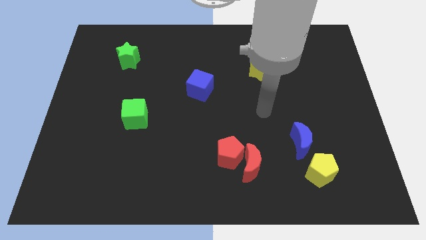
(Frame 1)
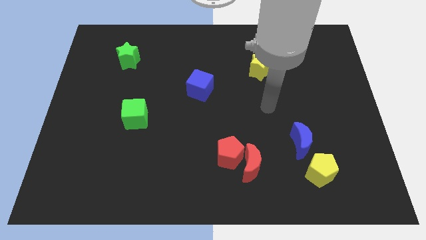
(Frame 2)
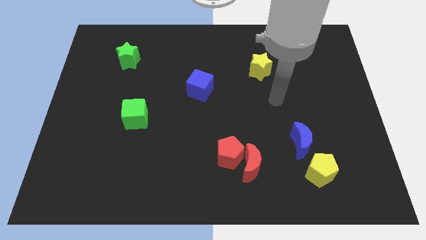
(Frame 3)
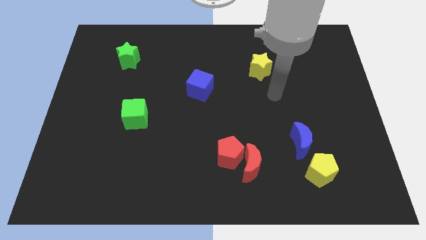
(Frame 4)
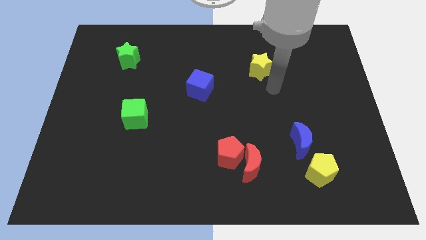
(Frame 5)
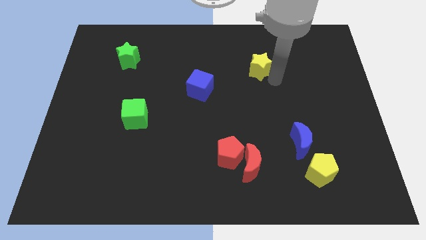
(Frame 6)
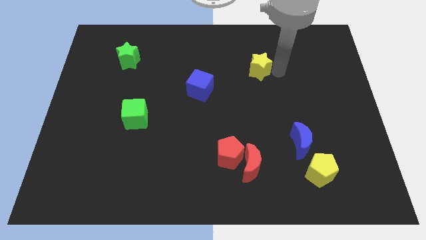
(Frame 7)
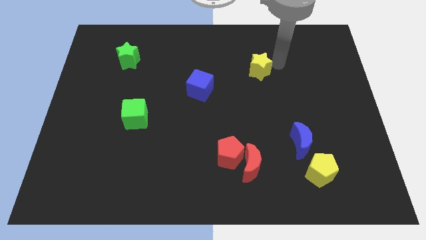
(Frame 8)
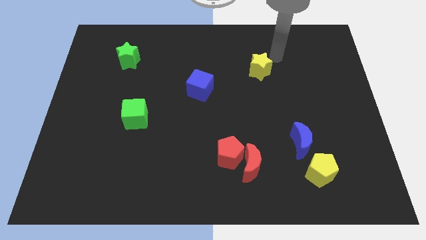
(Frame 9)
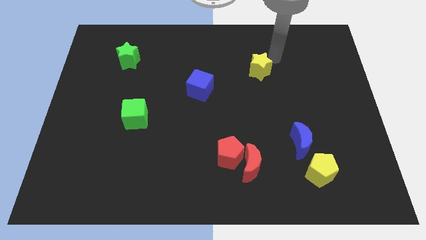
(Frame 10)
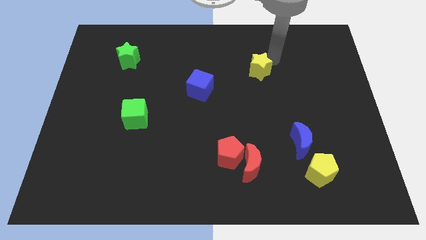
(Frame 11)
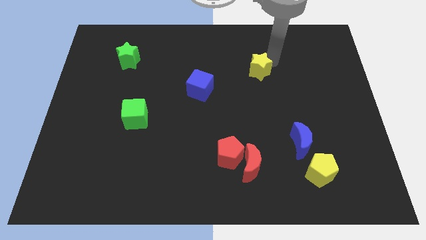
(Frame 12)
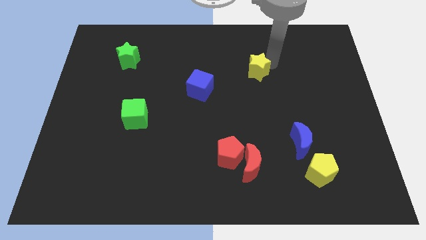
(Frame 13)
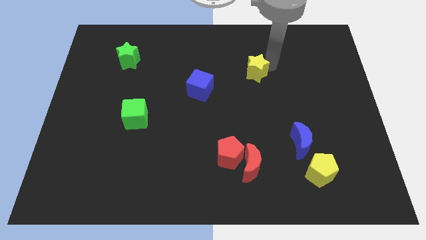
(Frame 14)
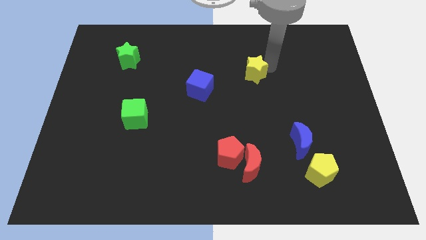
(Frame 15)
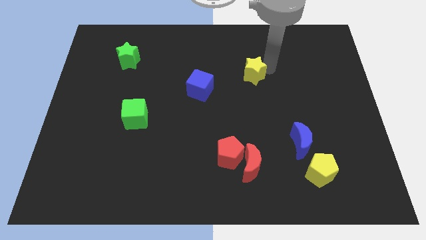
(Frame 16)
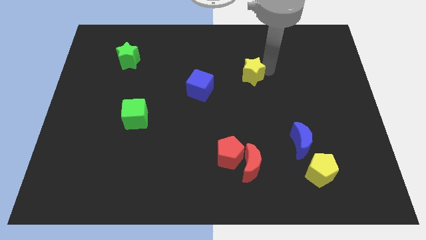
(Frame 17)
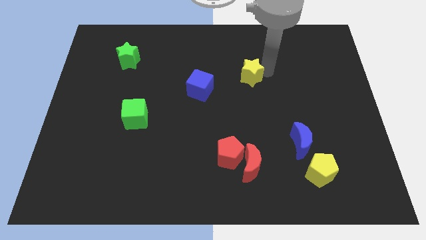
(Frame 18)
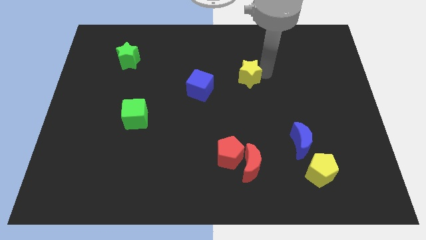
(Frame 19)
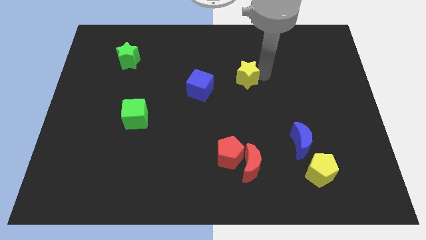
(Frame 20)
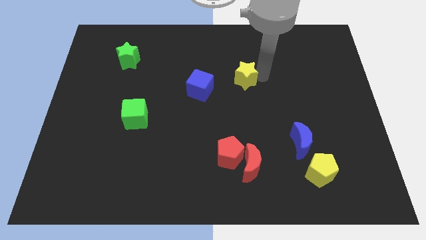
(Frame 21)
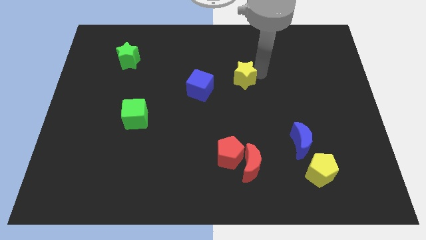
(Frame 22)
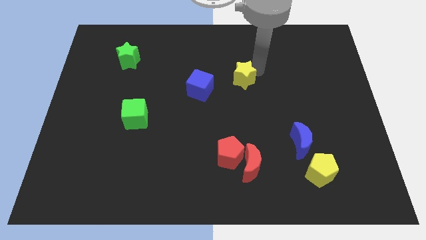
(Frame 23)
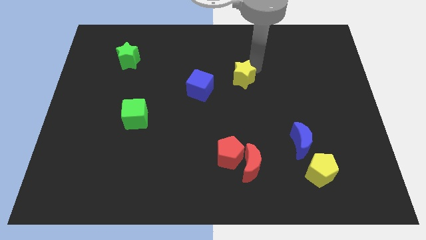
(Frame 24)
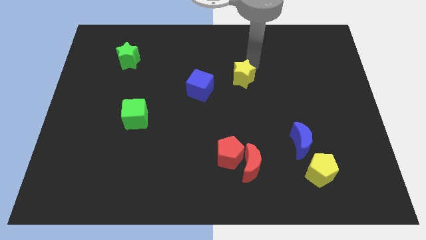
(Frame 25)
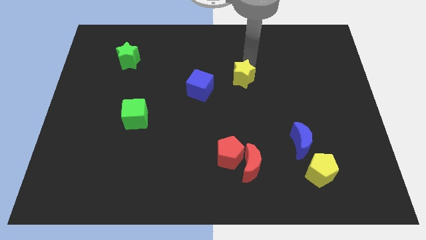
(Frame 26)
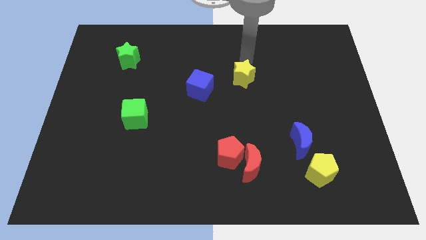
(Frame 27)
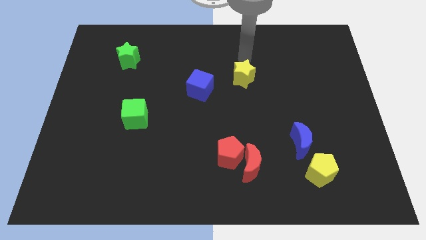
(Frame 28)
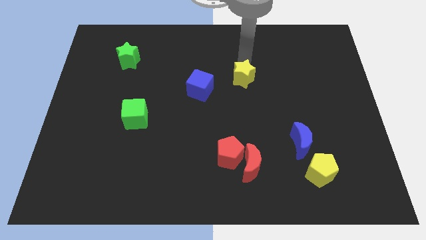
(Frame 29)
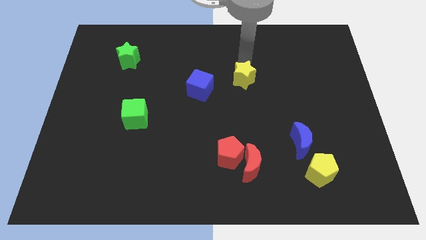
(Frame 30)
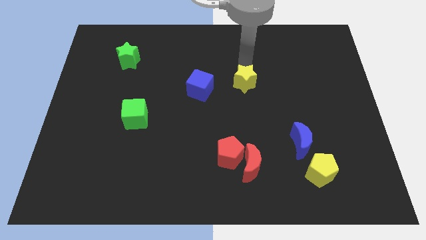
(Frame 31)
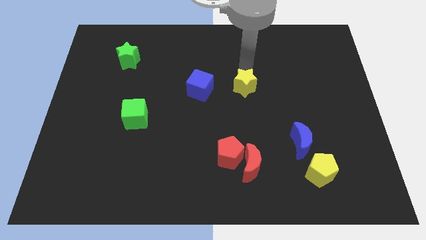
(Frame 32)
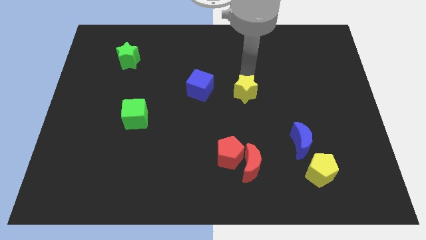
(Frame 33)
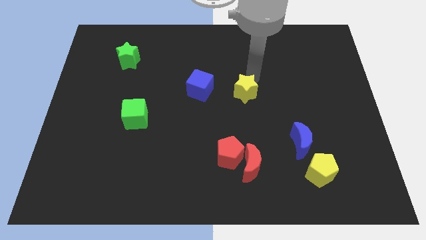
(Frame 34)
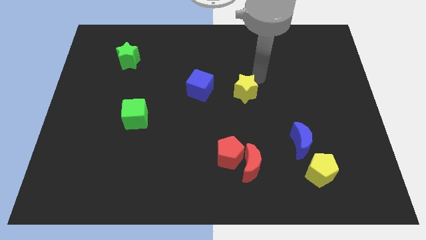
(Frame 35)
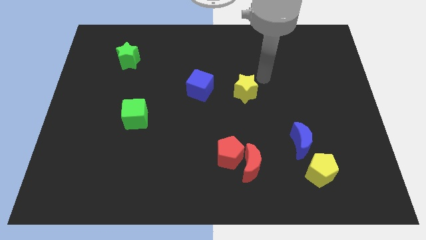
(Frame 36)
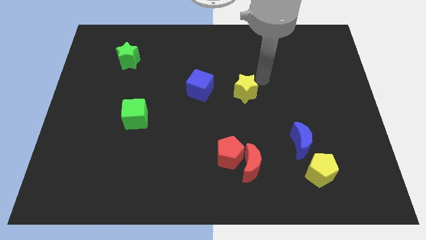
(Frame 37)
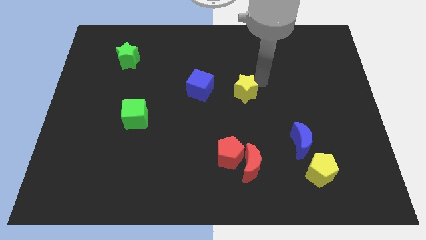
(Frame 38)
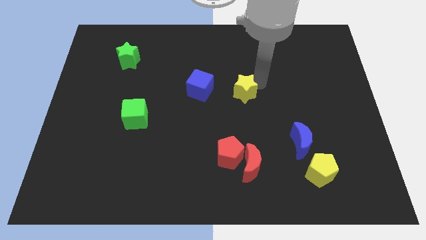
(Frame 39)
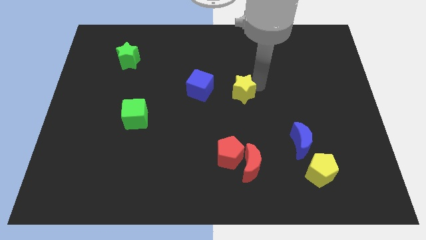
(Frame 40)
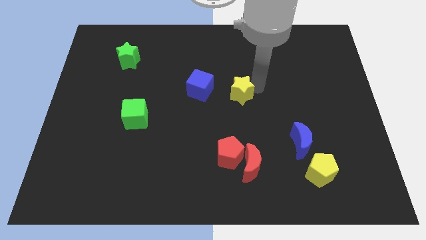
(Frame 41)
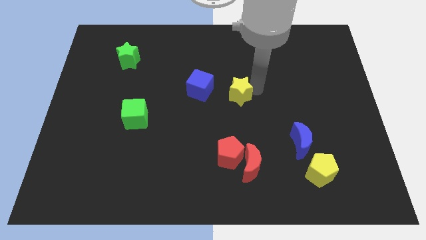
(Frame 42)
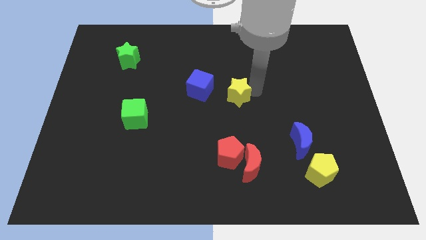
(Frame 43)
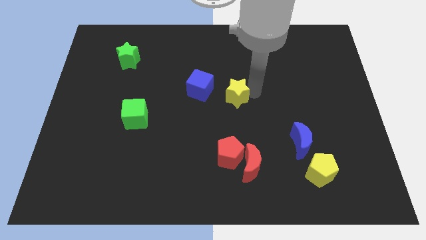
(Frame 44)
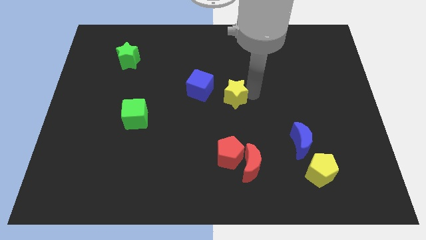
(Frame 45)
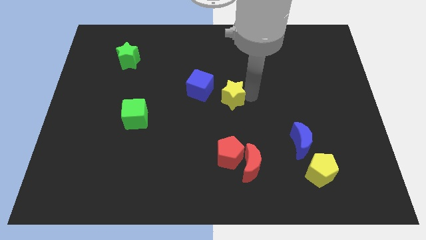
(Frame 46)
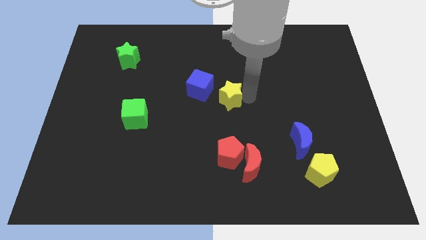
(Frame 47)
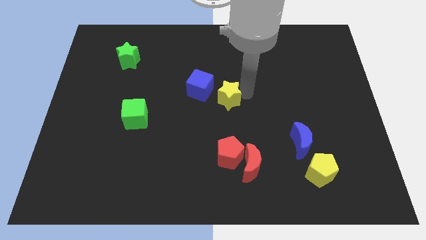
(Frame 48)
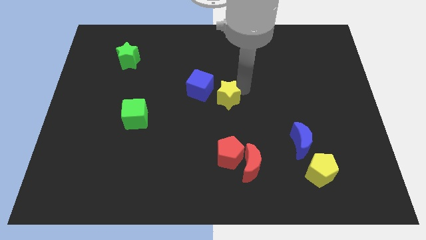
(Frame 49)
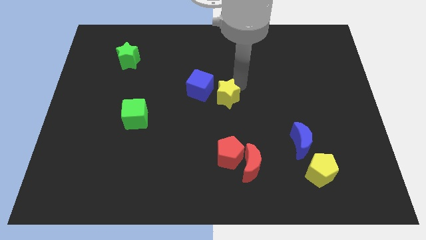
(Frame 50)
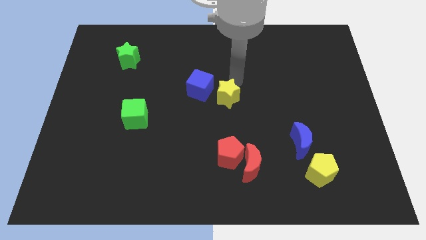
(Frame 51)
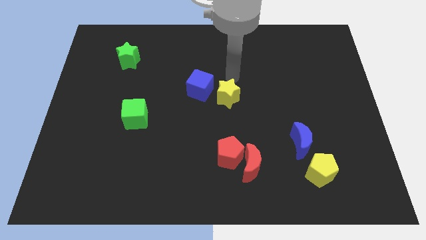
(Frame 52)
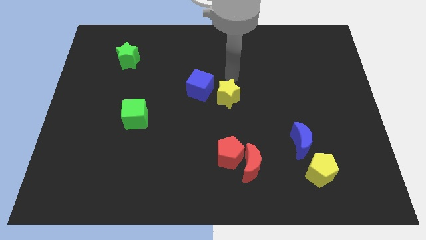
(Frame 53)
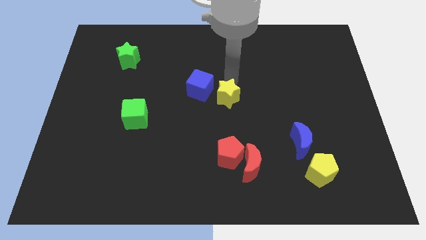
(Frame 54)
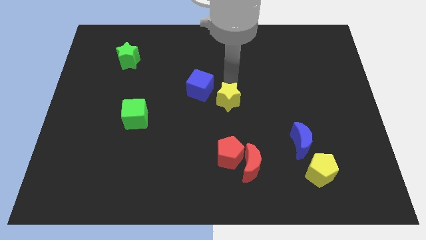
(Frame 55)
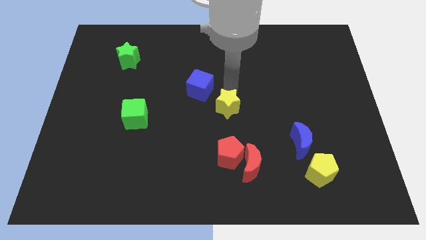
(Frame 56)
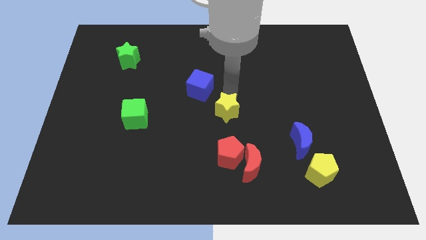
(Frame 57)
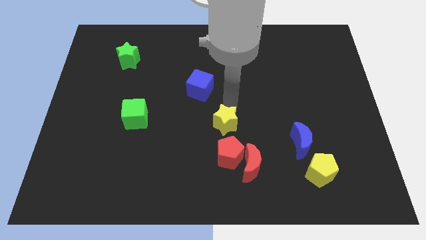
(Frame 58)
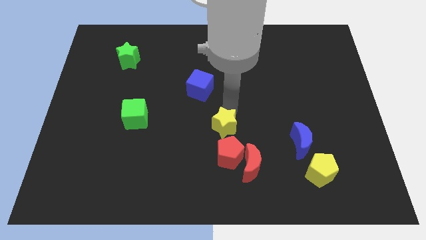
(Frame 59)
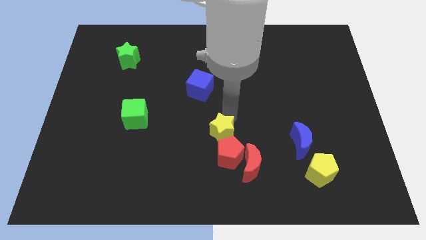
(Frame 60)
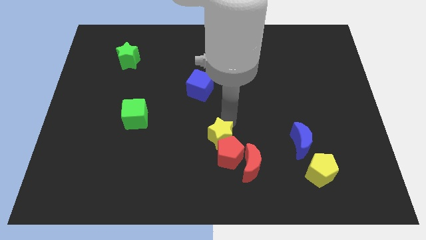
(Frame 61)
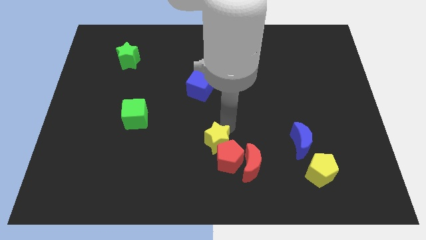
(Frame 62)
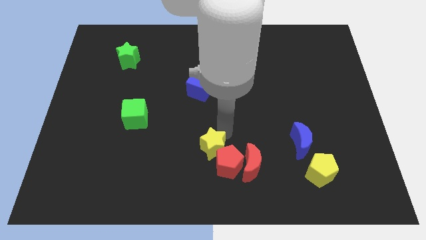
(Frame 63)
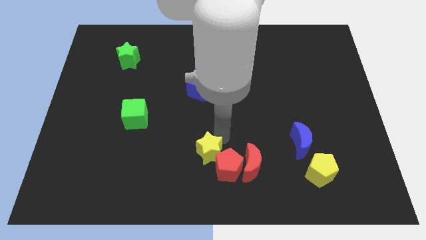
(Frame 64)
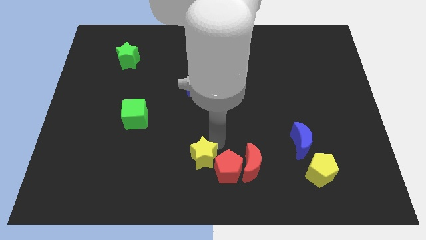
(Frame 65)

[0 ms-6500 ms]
slide the yellow star to the bottom
